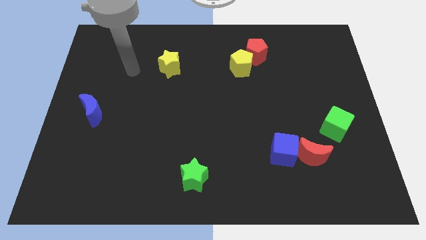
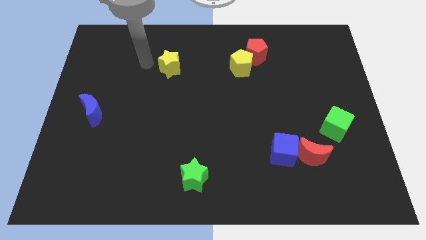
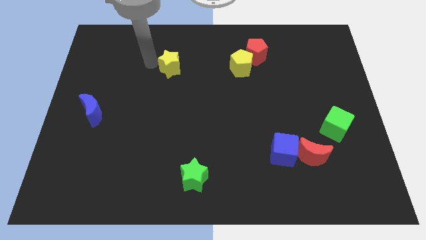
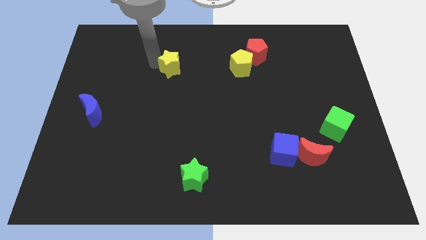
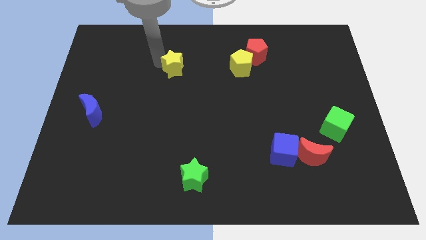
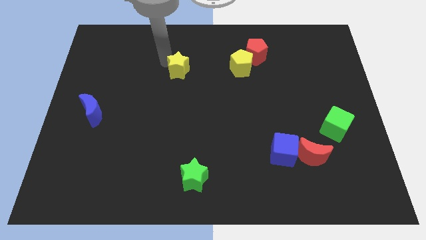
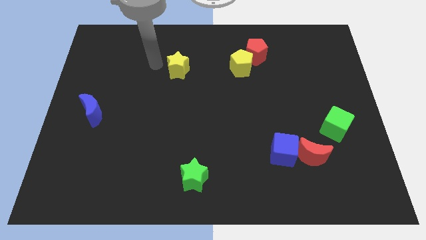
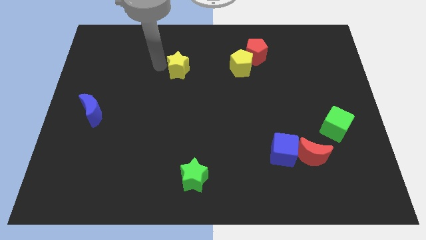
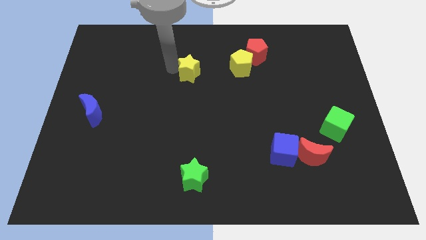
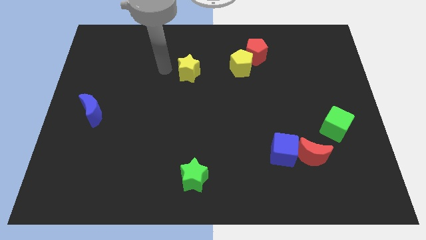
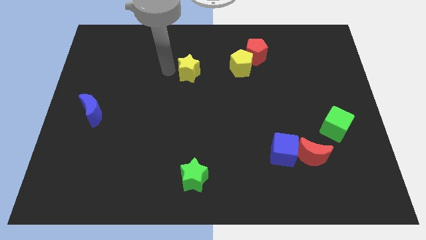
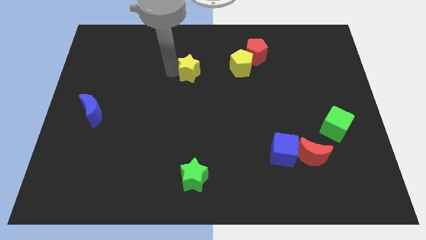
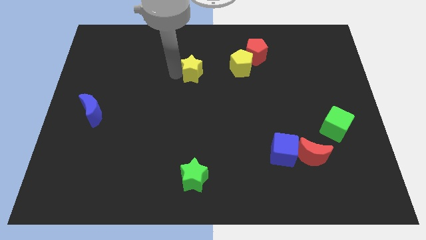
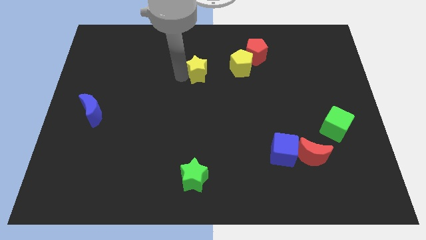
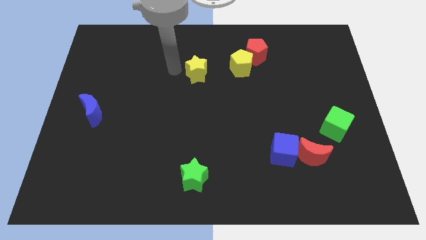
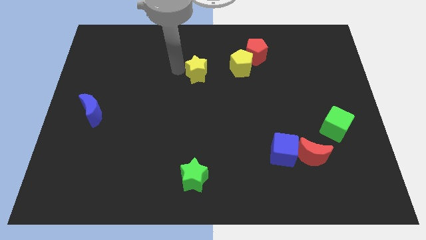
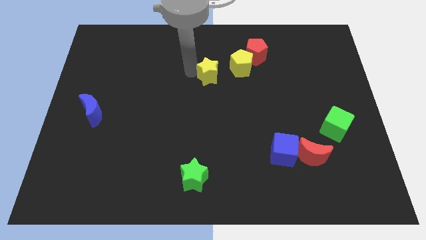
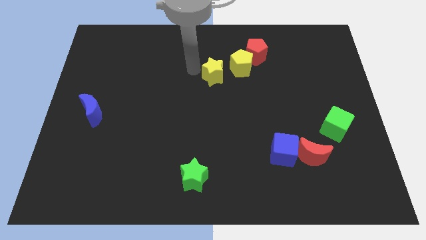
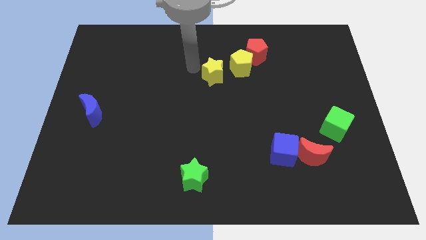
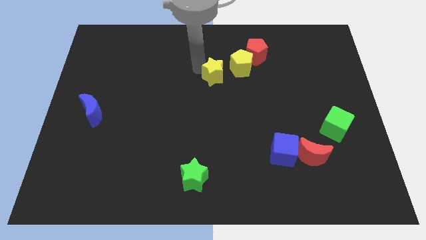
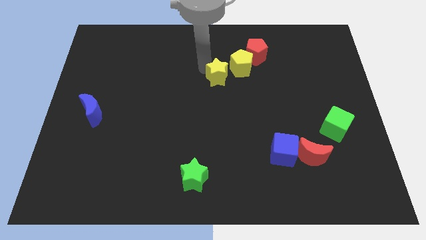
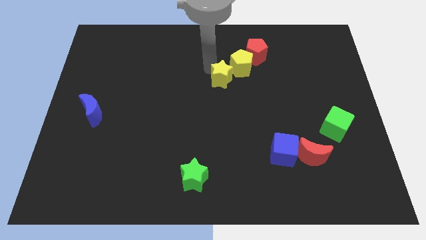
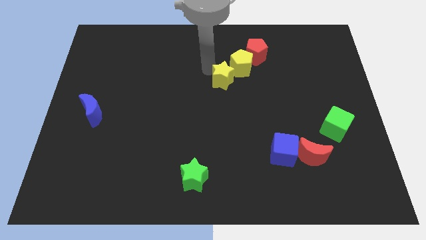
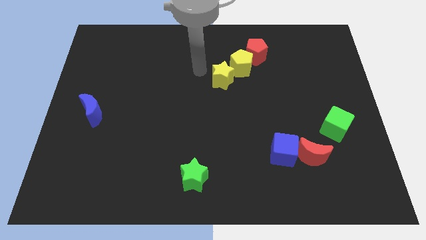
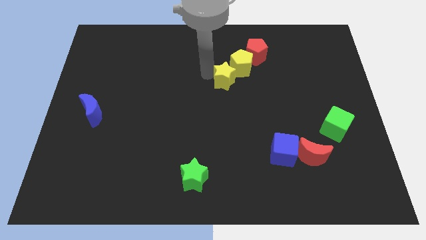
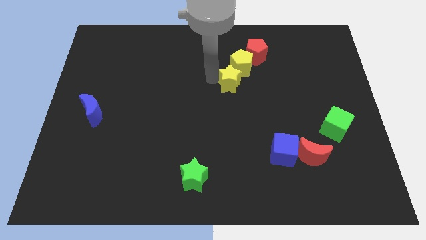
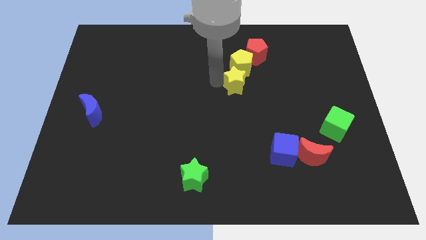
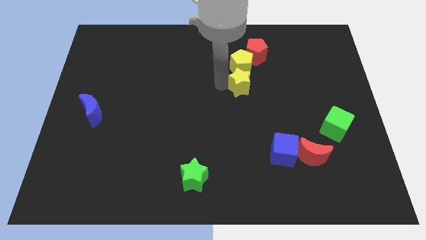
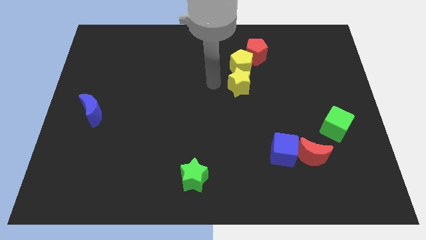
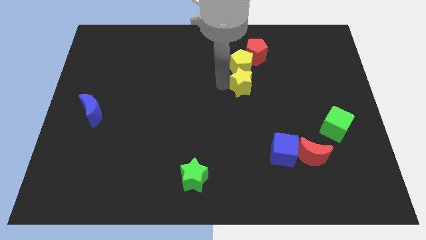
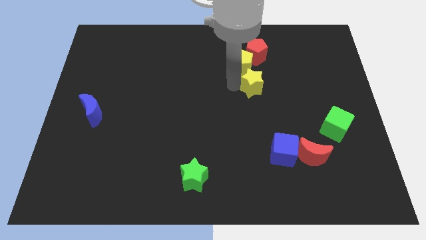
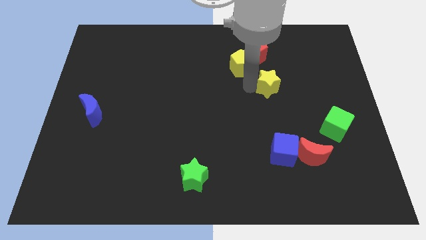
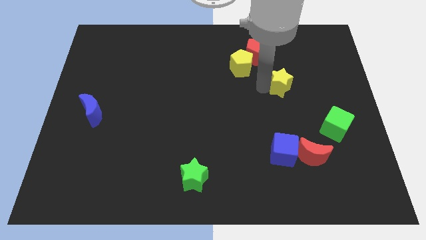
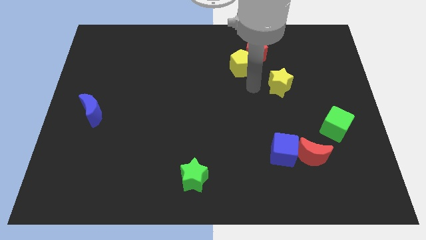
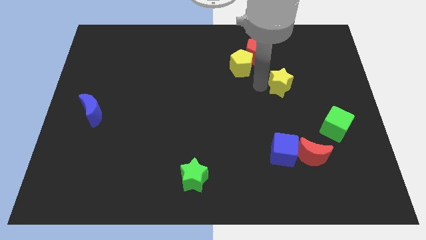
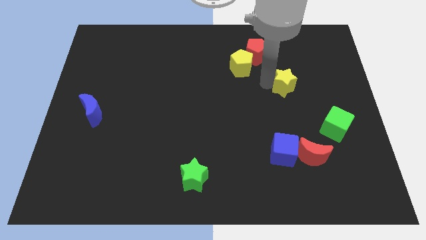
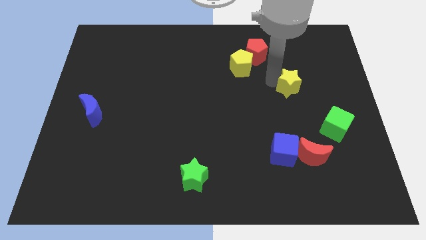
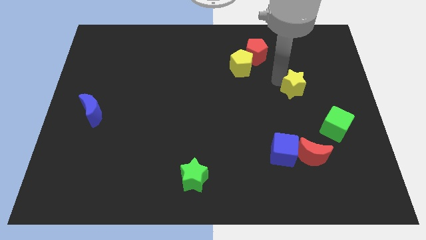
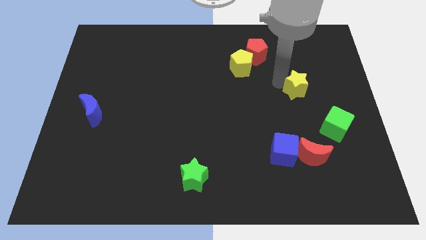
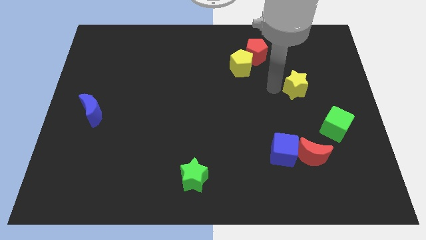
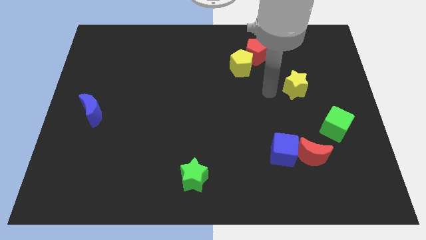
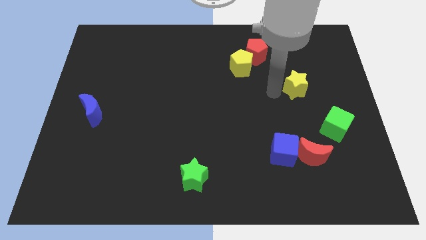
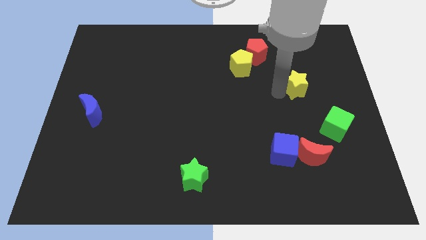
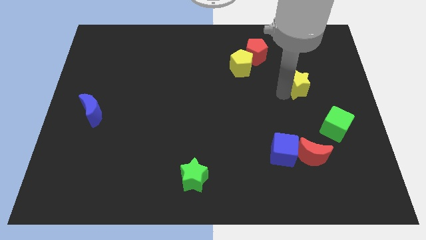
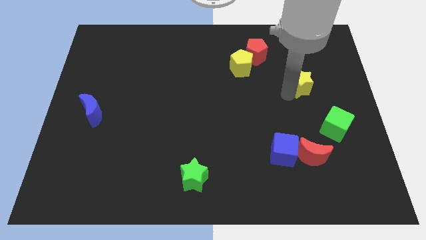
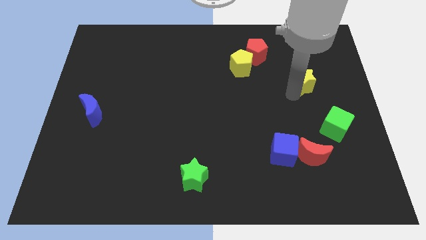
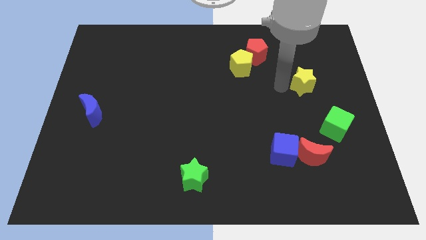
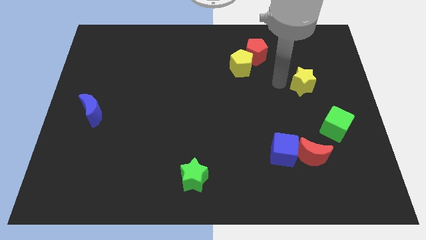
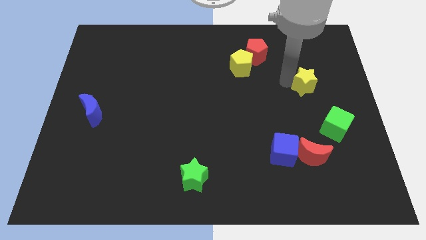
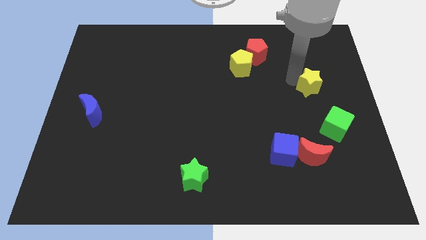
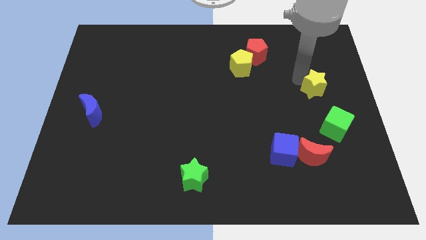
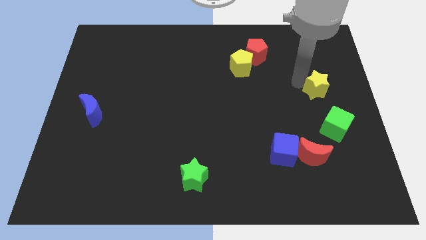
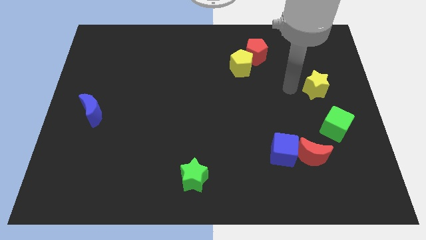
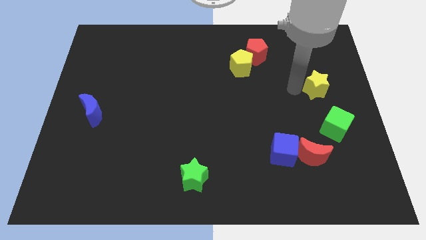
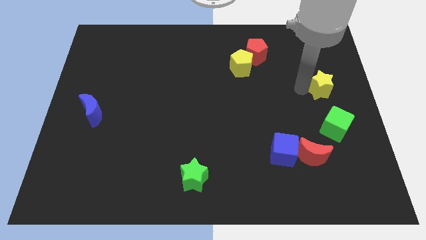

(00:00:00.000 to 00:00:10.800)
slide the yellow star to the right side of the board
